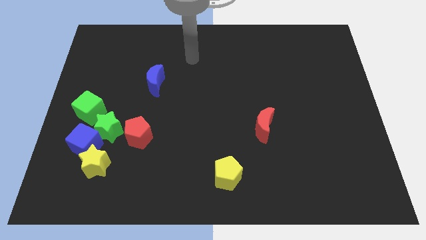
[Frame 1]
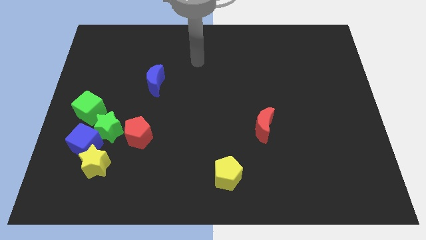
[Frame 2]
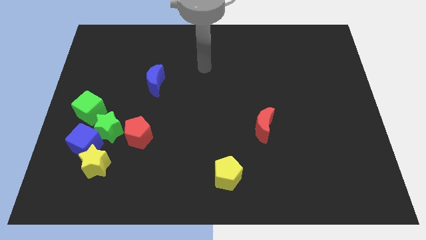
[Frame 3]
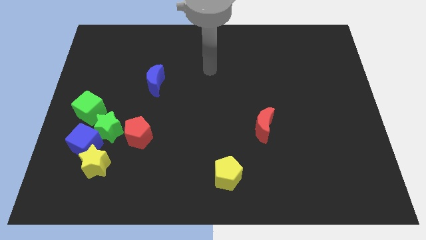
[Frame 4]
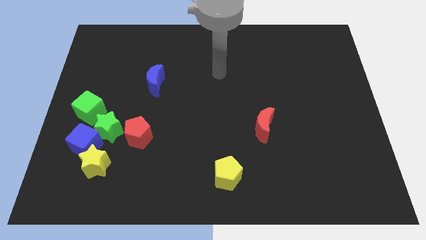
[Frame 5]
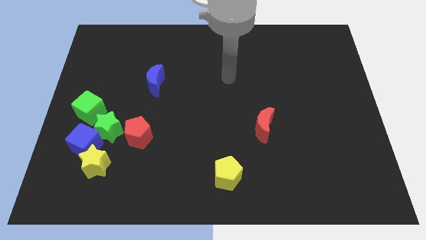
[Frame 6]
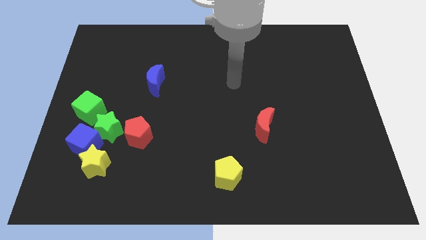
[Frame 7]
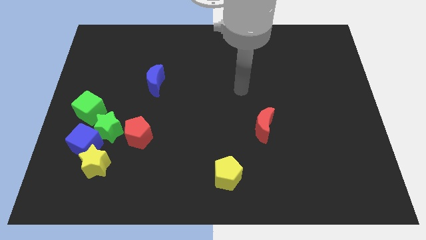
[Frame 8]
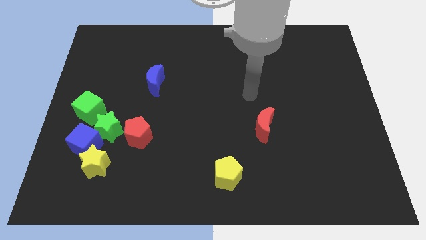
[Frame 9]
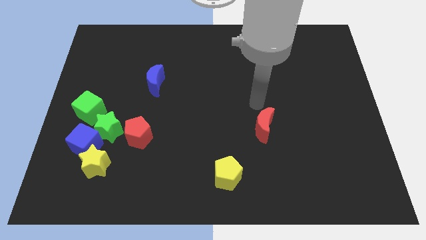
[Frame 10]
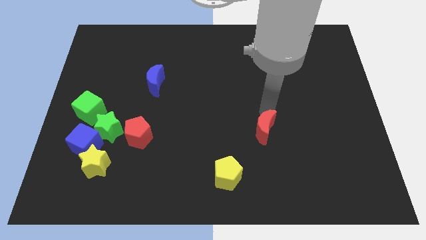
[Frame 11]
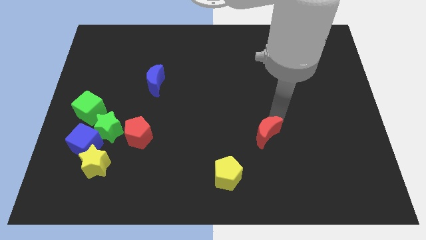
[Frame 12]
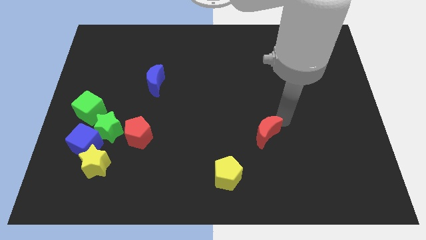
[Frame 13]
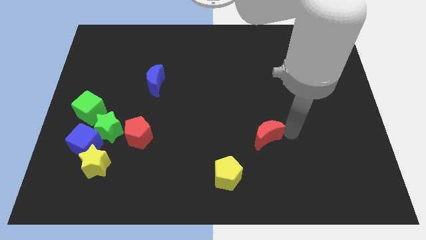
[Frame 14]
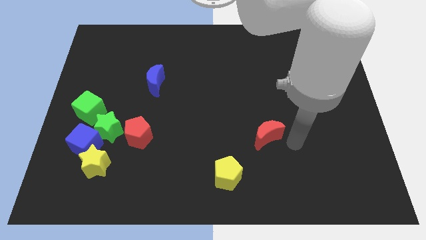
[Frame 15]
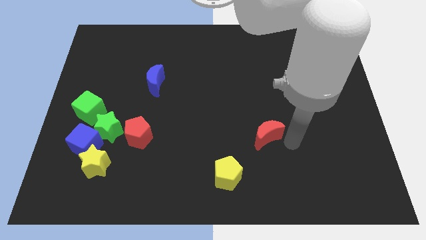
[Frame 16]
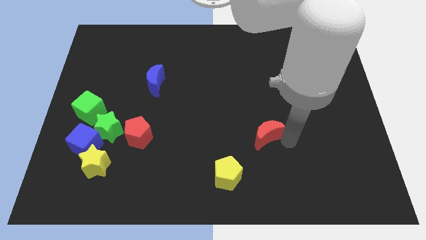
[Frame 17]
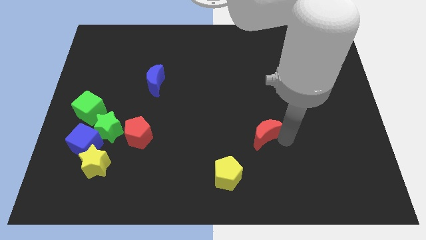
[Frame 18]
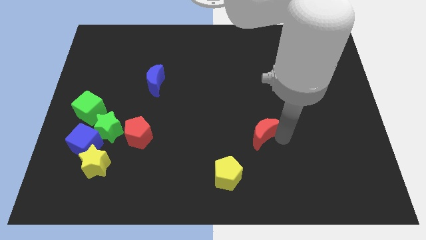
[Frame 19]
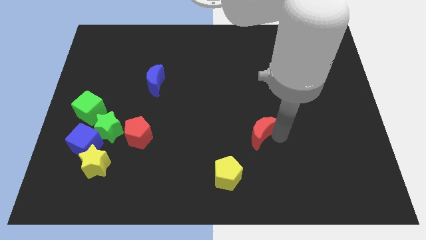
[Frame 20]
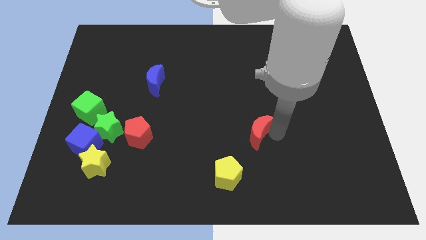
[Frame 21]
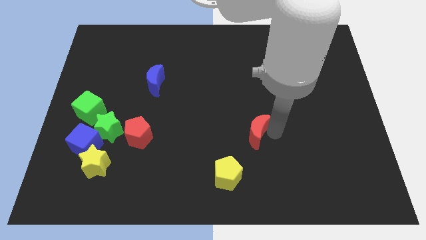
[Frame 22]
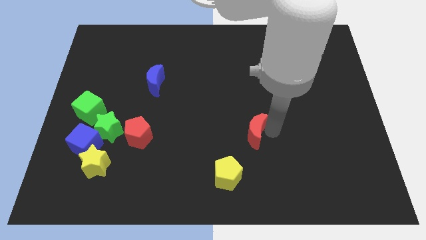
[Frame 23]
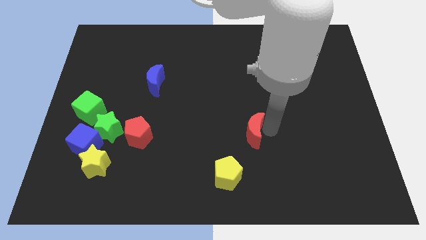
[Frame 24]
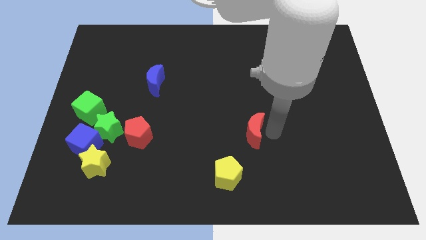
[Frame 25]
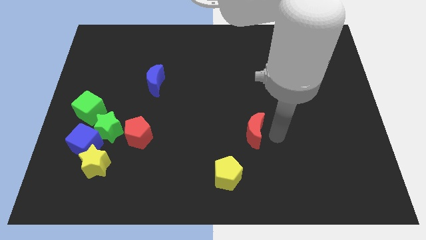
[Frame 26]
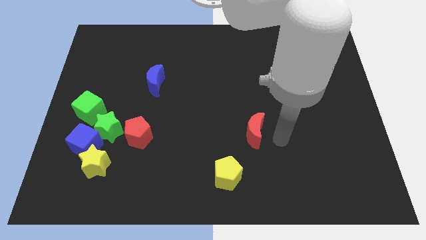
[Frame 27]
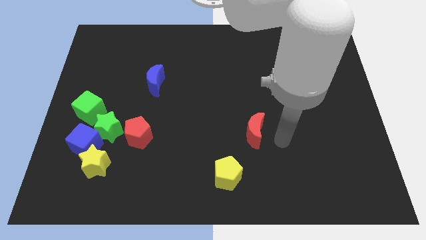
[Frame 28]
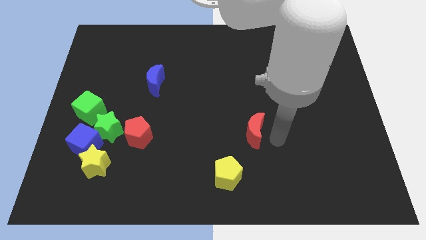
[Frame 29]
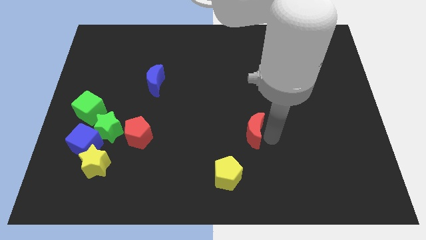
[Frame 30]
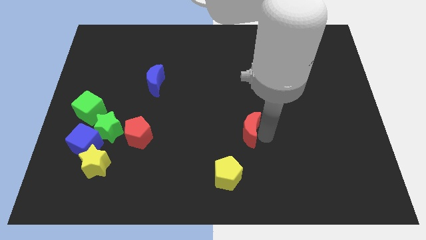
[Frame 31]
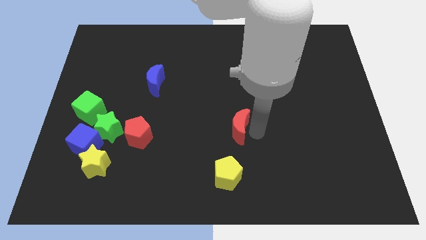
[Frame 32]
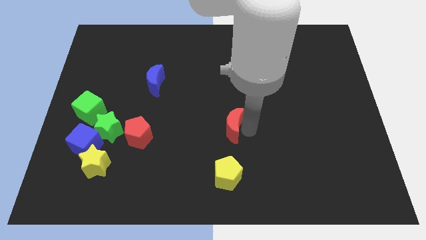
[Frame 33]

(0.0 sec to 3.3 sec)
slide the red moon to the left a little

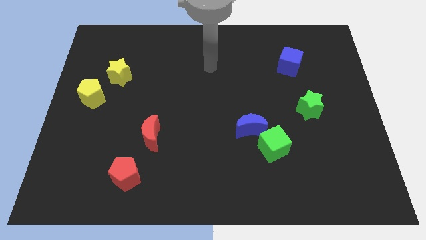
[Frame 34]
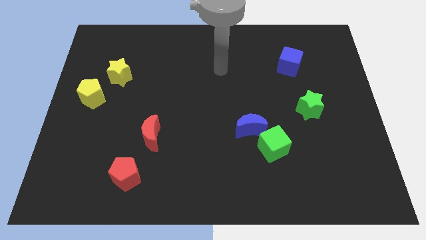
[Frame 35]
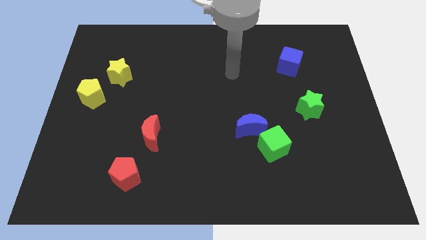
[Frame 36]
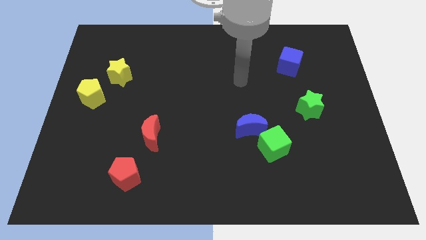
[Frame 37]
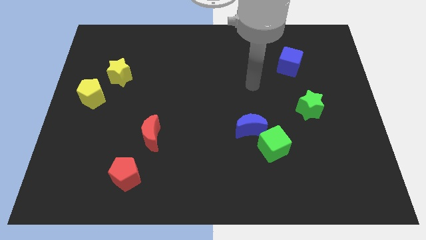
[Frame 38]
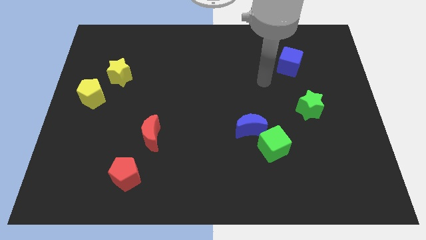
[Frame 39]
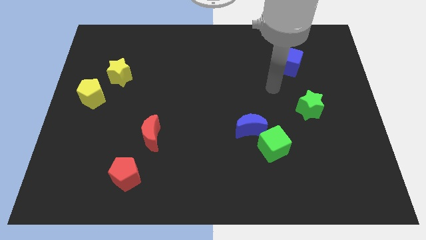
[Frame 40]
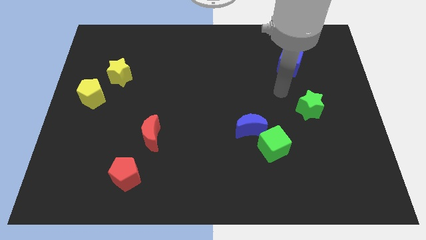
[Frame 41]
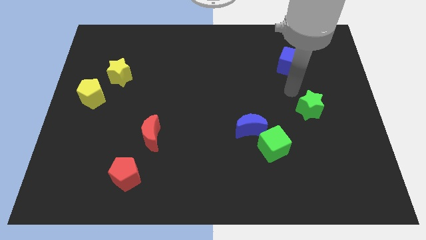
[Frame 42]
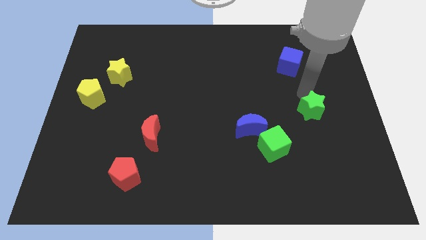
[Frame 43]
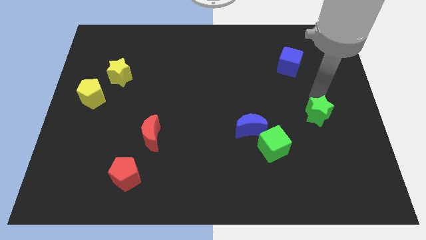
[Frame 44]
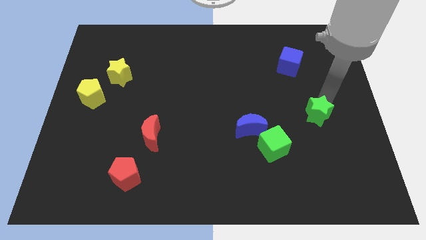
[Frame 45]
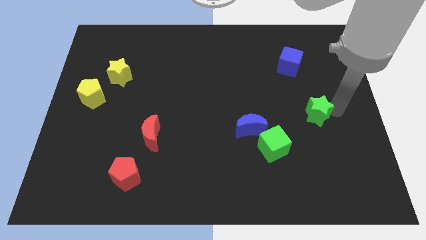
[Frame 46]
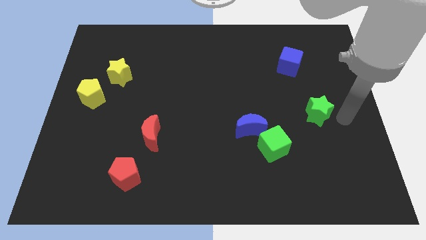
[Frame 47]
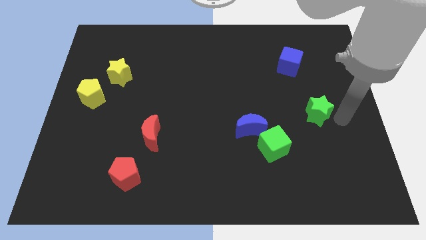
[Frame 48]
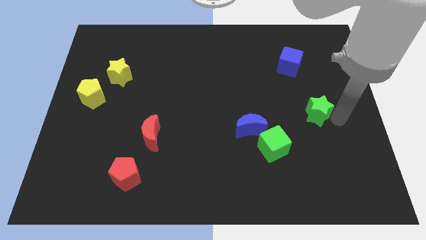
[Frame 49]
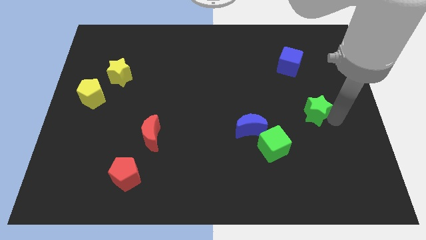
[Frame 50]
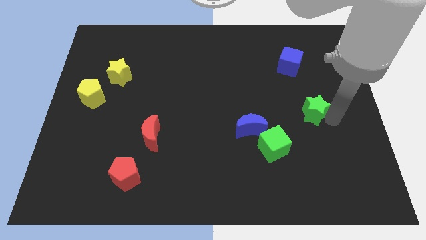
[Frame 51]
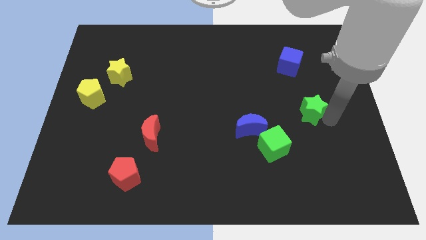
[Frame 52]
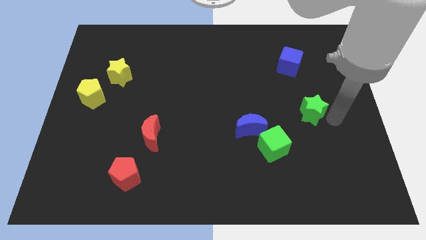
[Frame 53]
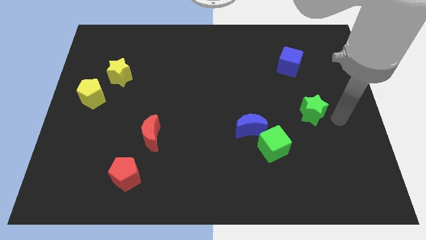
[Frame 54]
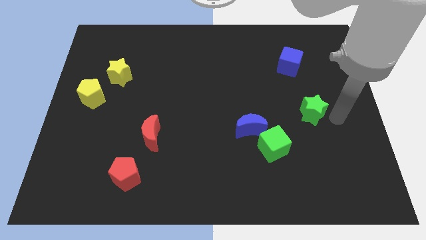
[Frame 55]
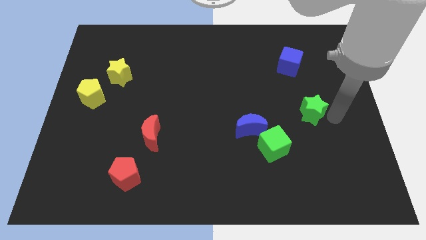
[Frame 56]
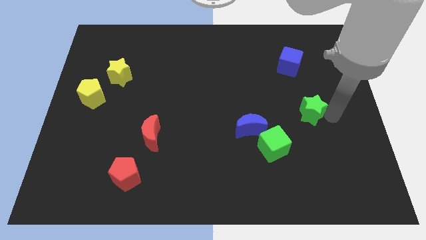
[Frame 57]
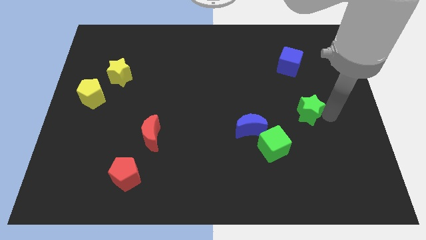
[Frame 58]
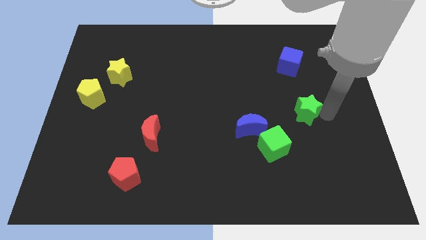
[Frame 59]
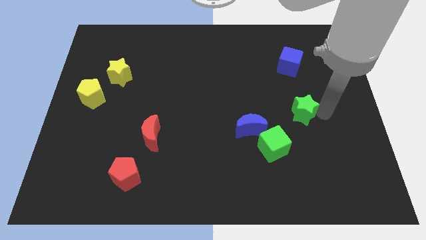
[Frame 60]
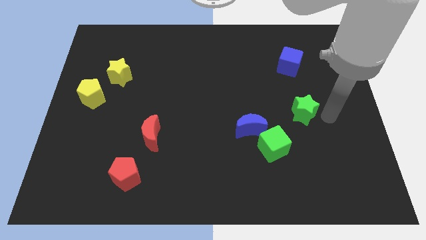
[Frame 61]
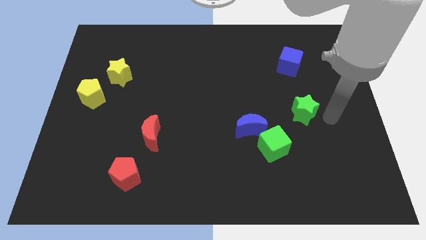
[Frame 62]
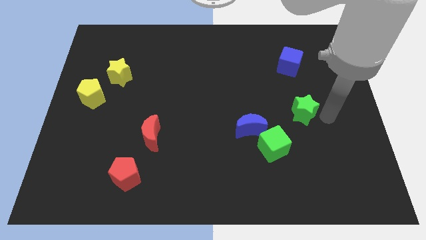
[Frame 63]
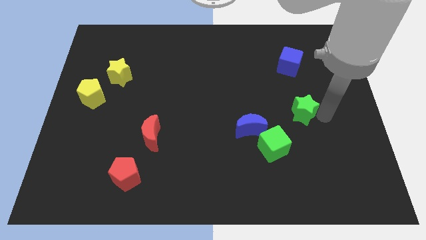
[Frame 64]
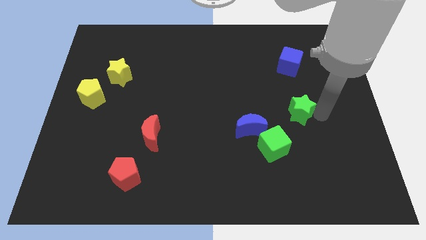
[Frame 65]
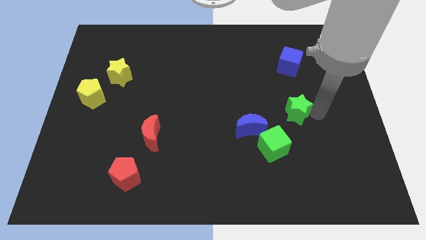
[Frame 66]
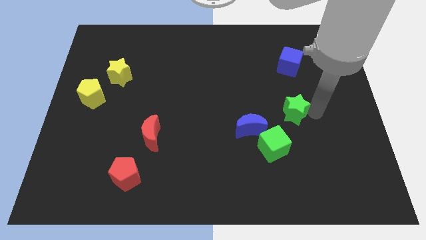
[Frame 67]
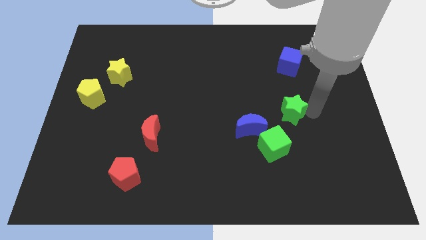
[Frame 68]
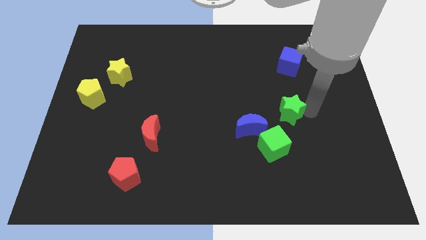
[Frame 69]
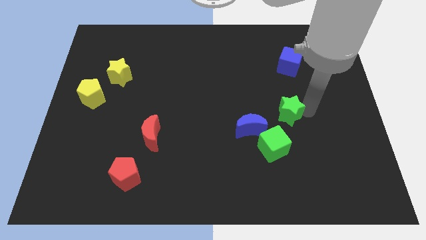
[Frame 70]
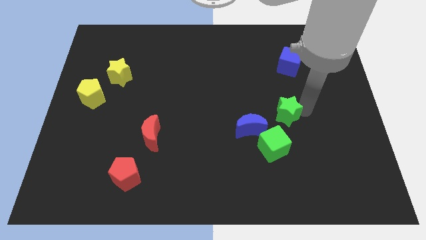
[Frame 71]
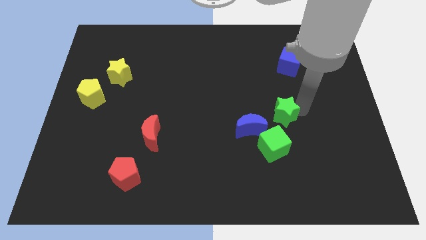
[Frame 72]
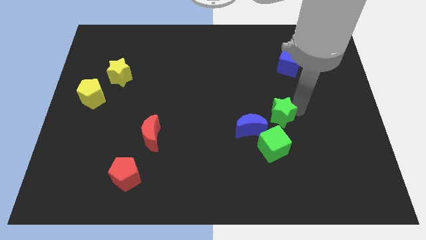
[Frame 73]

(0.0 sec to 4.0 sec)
slide the green star a bit to the left

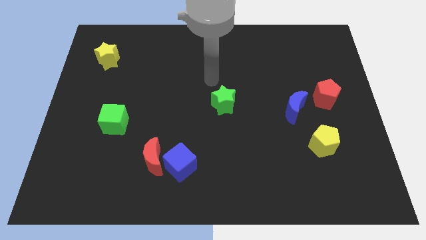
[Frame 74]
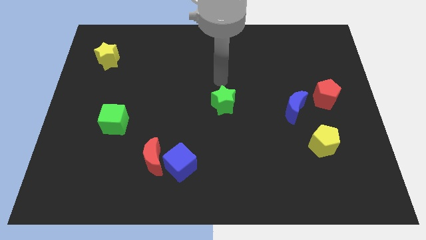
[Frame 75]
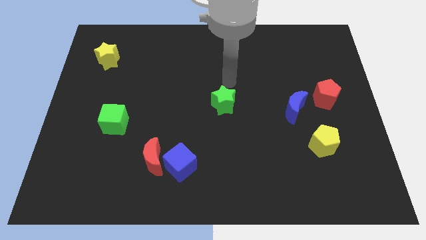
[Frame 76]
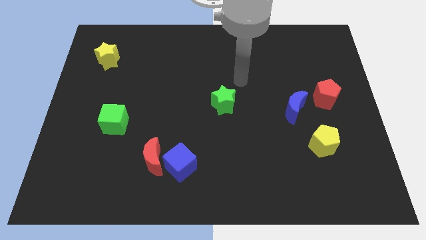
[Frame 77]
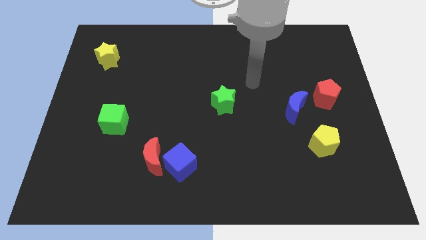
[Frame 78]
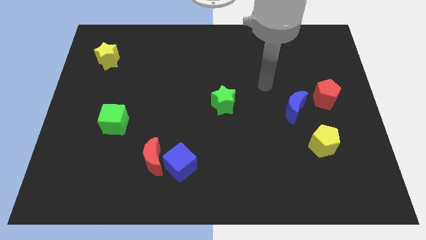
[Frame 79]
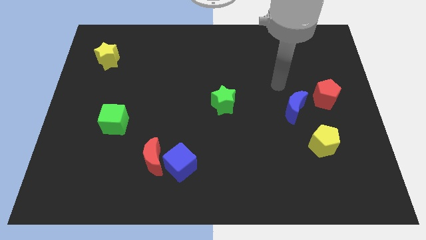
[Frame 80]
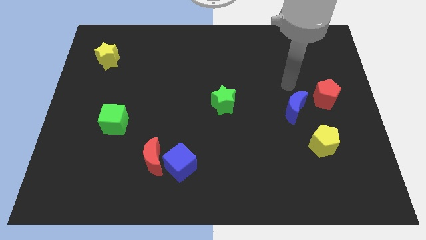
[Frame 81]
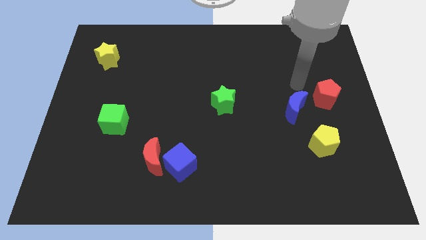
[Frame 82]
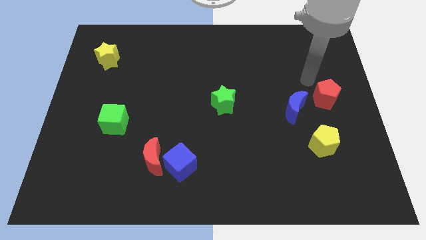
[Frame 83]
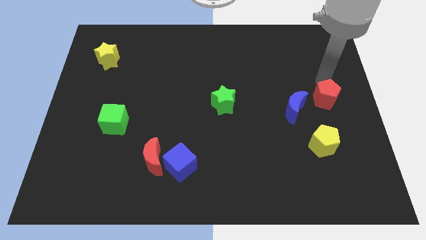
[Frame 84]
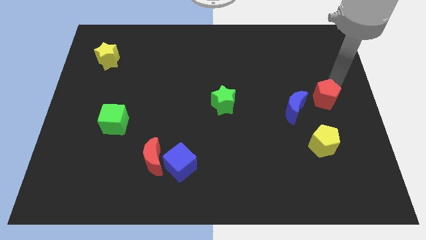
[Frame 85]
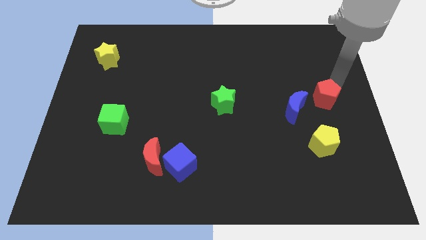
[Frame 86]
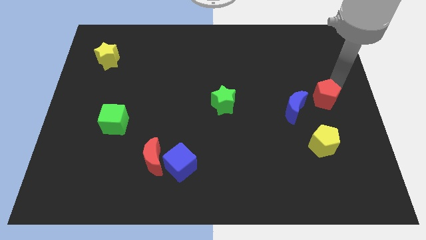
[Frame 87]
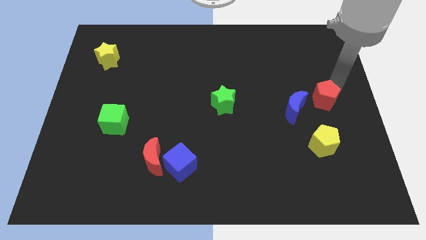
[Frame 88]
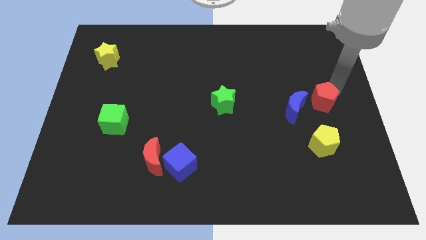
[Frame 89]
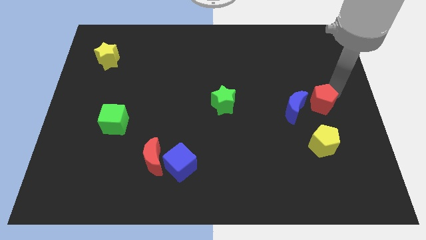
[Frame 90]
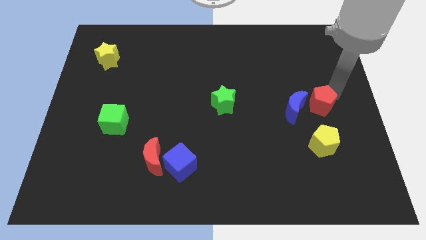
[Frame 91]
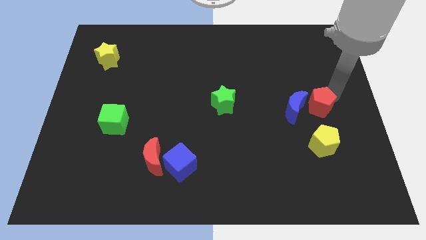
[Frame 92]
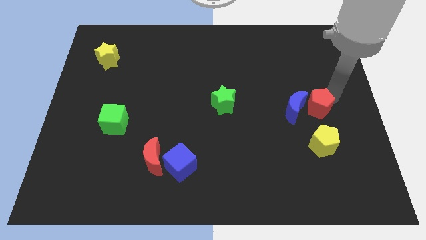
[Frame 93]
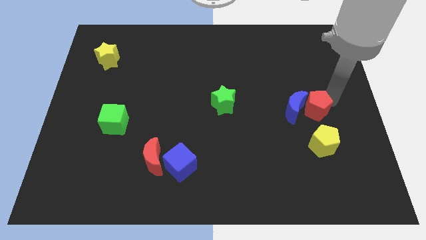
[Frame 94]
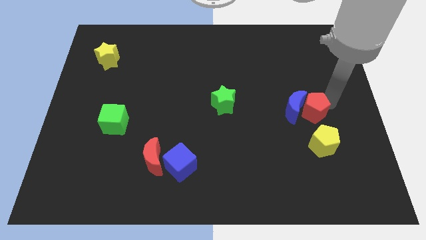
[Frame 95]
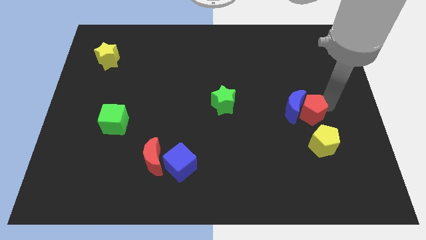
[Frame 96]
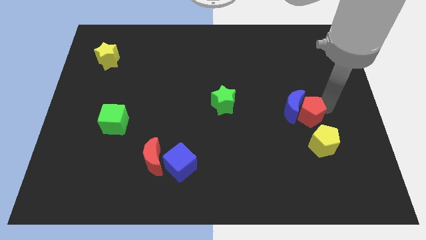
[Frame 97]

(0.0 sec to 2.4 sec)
move the red pentagon down and left slightly
